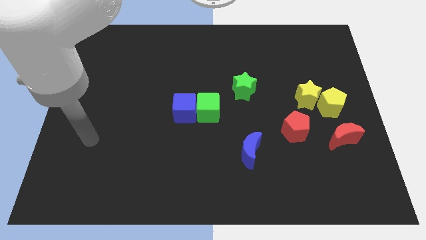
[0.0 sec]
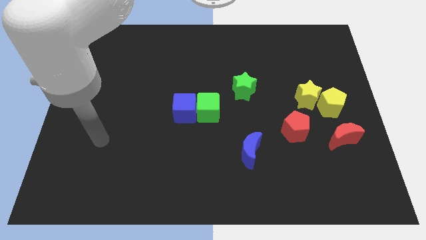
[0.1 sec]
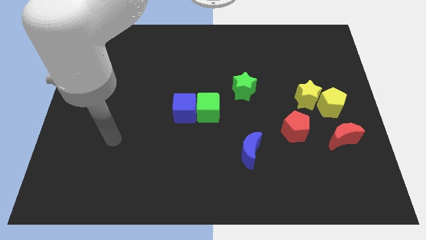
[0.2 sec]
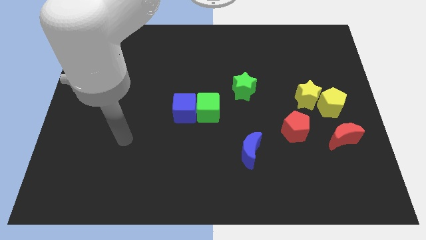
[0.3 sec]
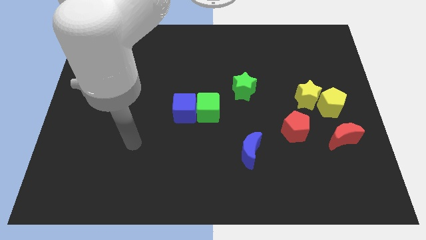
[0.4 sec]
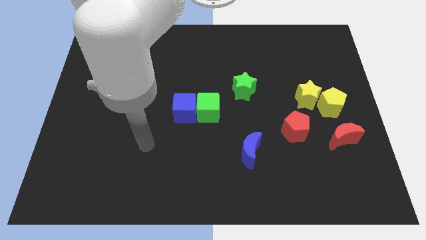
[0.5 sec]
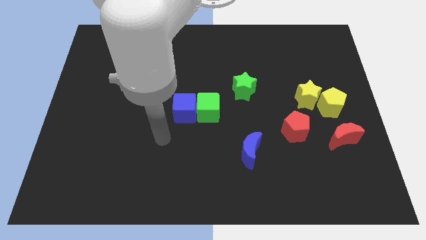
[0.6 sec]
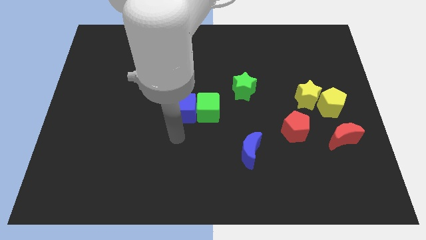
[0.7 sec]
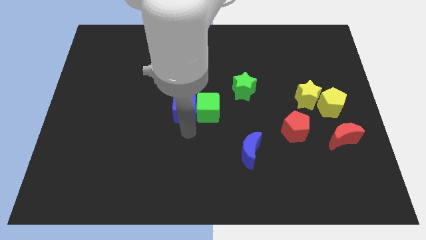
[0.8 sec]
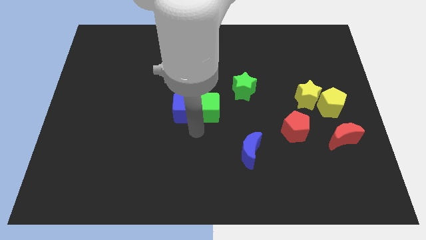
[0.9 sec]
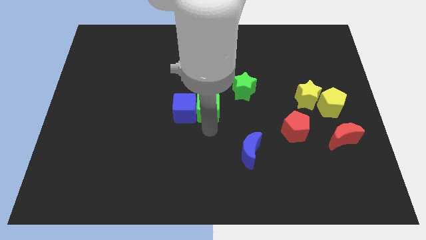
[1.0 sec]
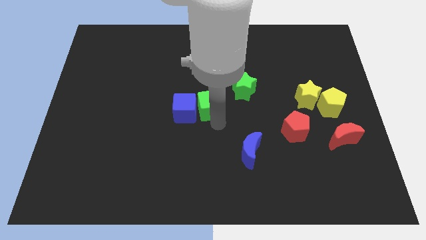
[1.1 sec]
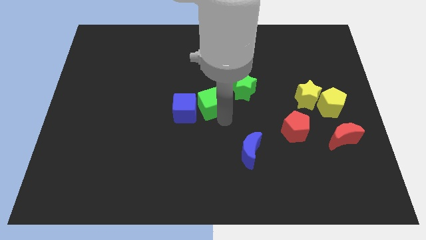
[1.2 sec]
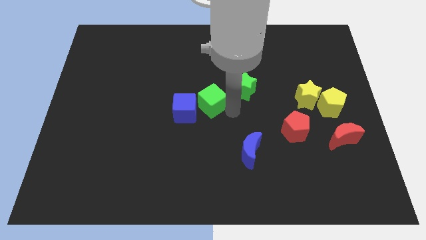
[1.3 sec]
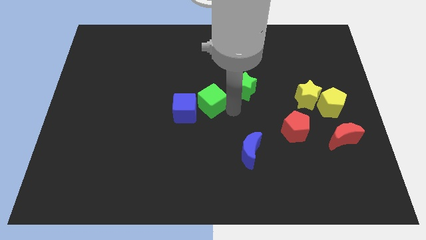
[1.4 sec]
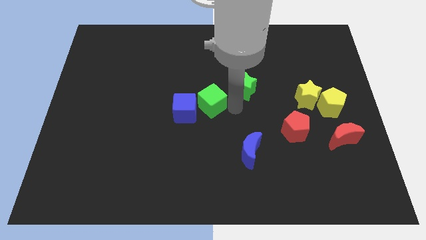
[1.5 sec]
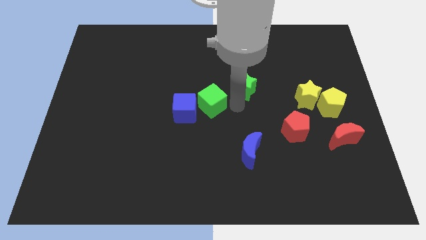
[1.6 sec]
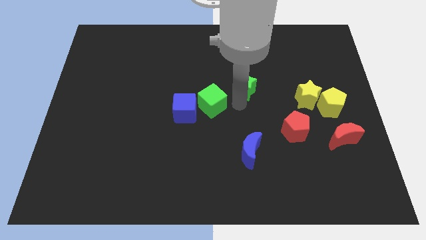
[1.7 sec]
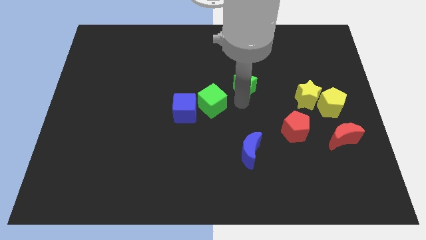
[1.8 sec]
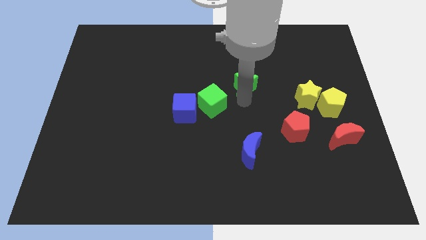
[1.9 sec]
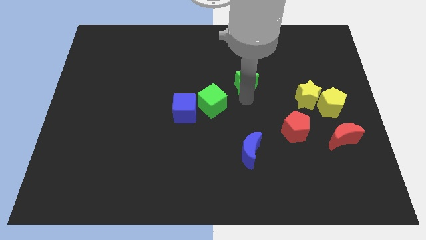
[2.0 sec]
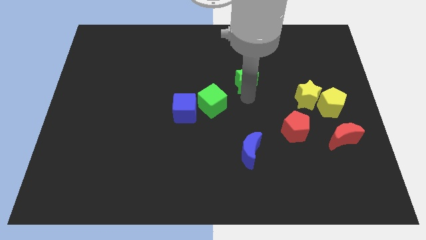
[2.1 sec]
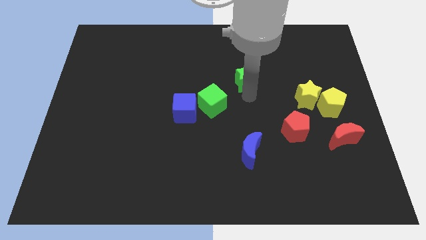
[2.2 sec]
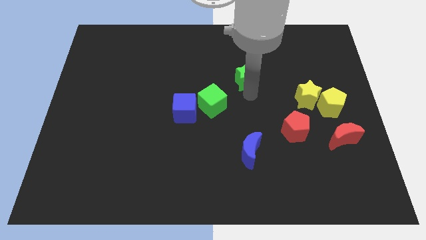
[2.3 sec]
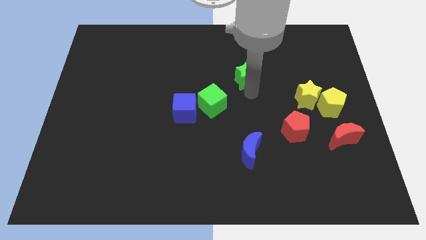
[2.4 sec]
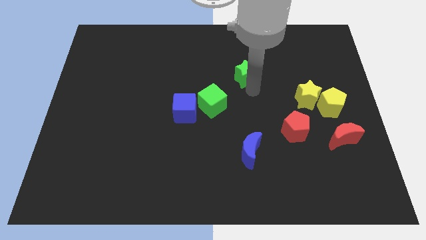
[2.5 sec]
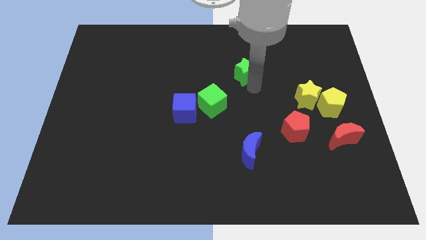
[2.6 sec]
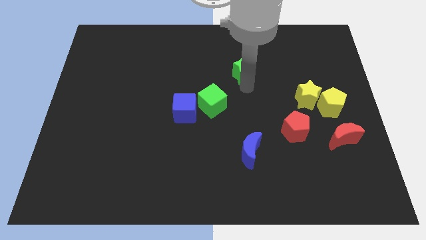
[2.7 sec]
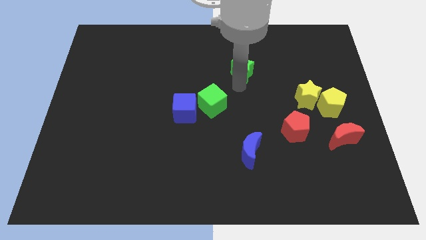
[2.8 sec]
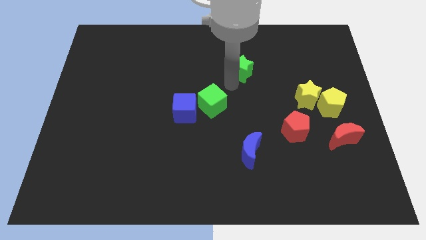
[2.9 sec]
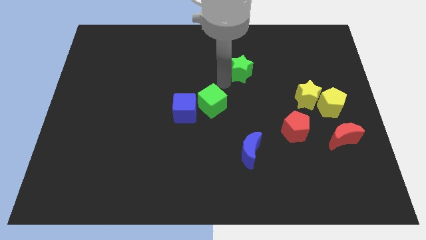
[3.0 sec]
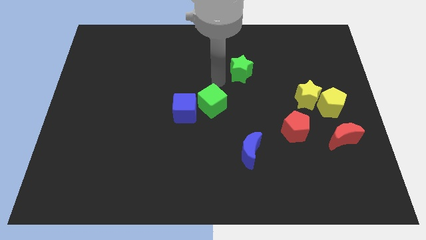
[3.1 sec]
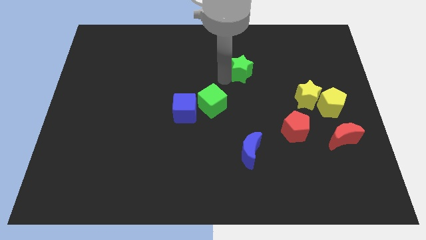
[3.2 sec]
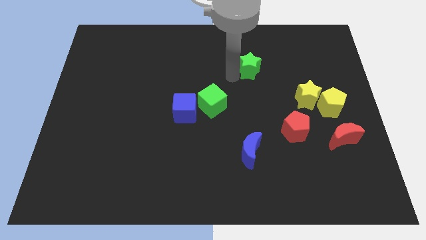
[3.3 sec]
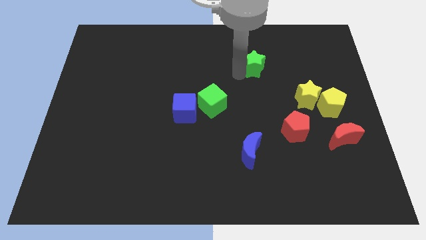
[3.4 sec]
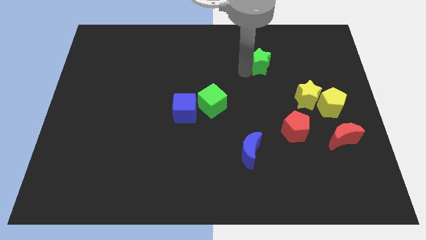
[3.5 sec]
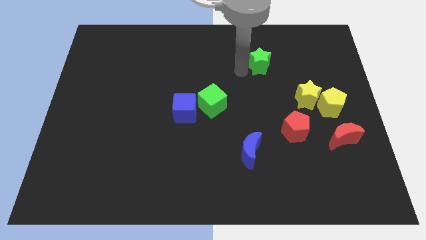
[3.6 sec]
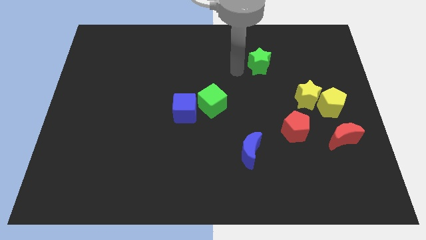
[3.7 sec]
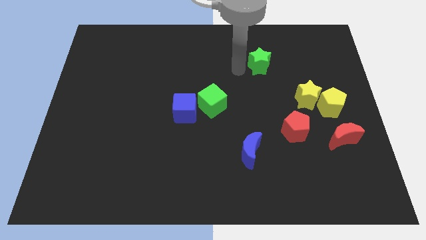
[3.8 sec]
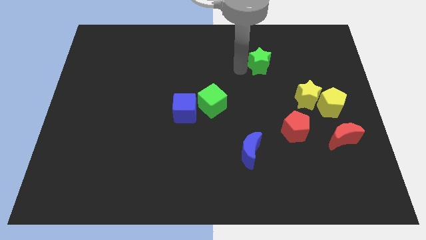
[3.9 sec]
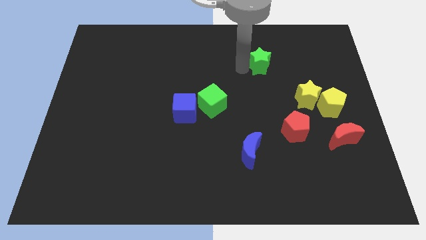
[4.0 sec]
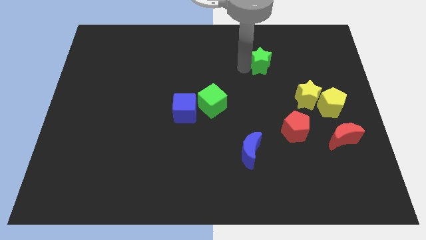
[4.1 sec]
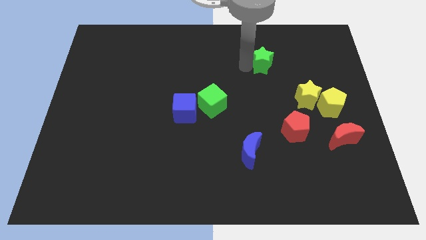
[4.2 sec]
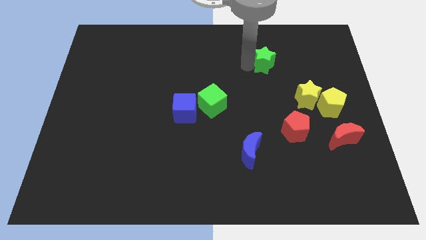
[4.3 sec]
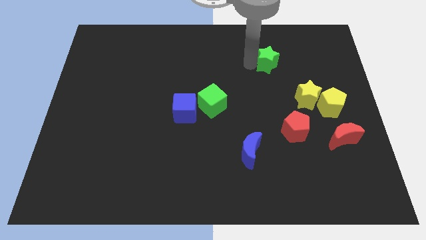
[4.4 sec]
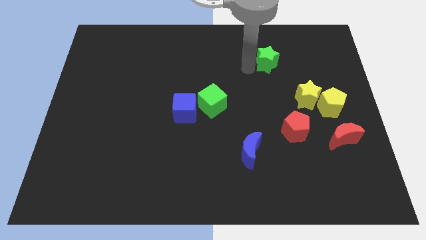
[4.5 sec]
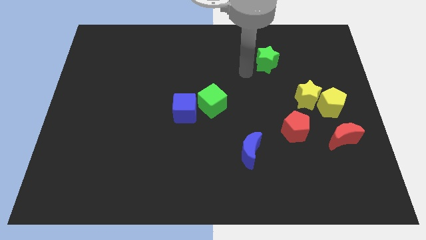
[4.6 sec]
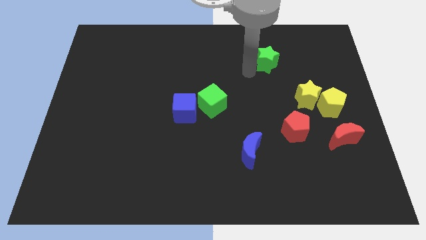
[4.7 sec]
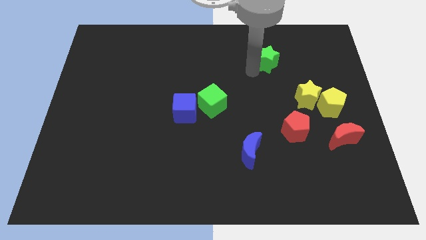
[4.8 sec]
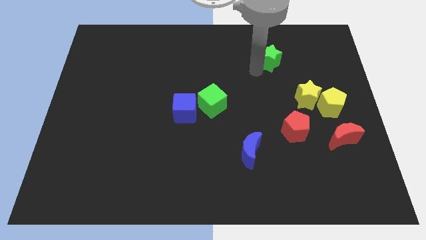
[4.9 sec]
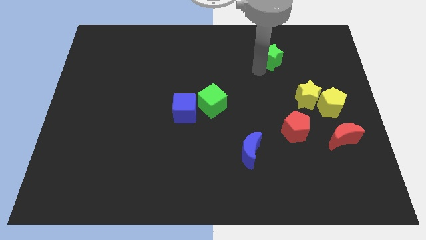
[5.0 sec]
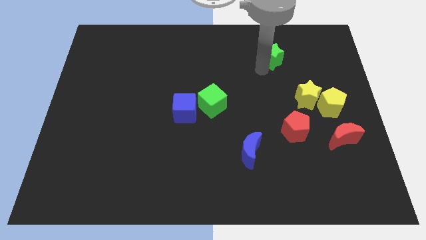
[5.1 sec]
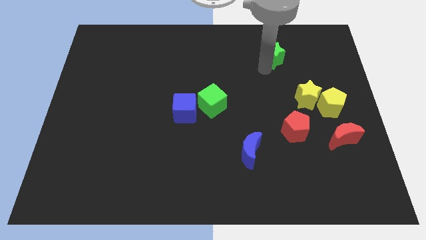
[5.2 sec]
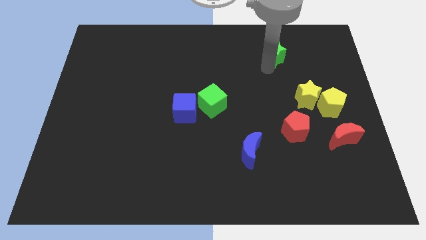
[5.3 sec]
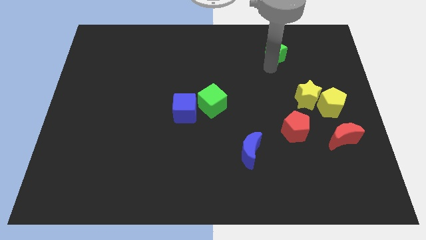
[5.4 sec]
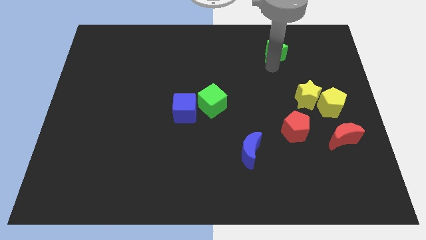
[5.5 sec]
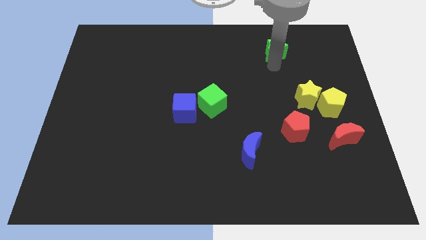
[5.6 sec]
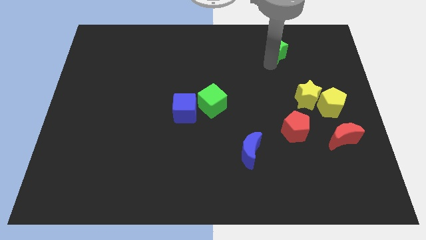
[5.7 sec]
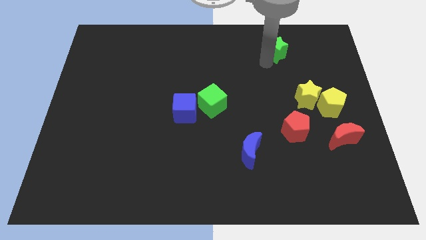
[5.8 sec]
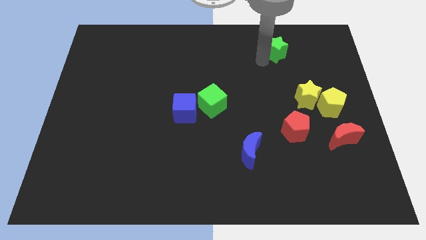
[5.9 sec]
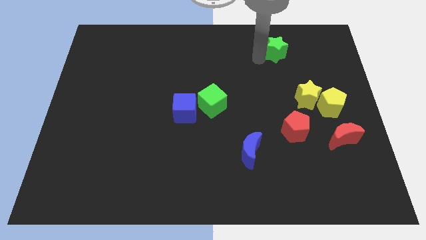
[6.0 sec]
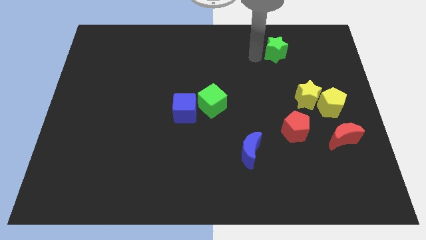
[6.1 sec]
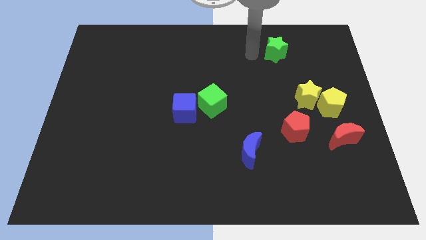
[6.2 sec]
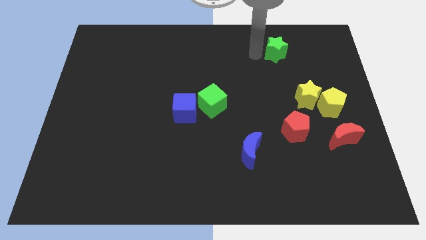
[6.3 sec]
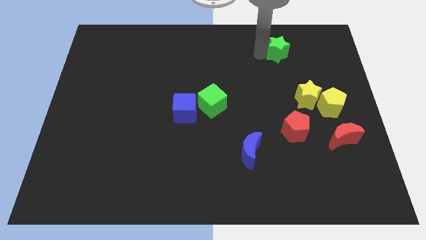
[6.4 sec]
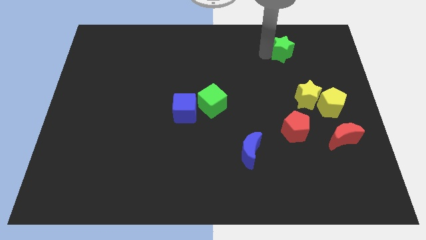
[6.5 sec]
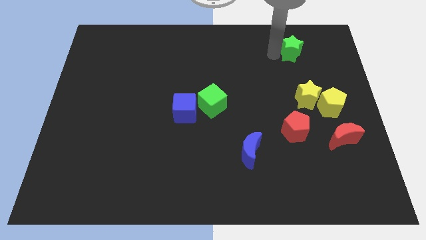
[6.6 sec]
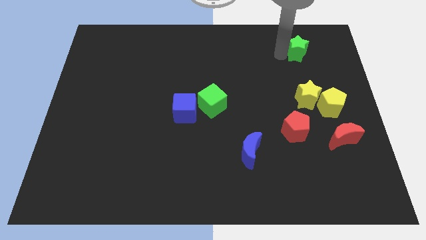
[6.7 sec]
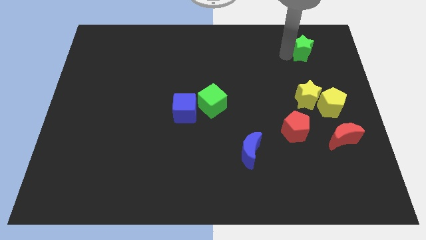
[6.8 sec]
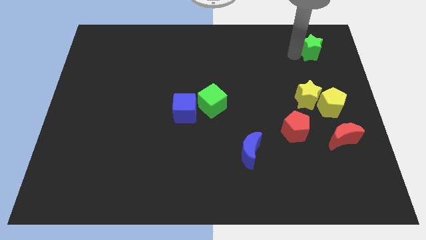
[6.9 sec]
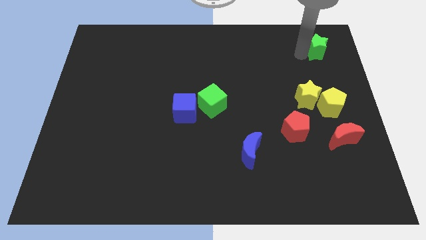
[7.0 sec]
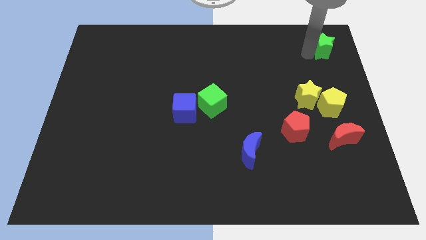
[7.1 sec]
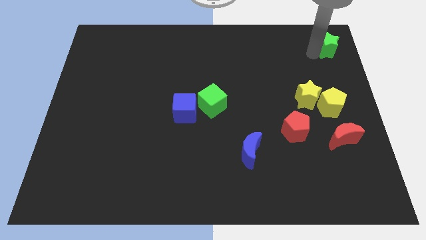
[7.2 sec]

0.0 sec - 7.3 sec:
put the green star to the upper right corner

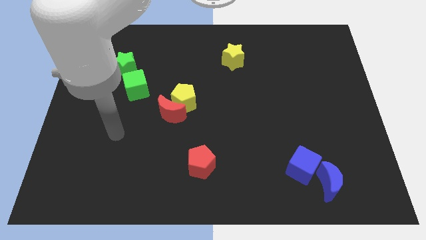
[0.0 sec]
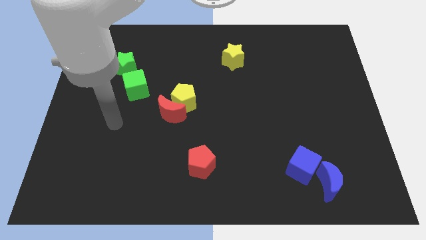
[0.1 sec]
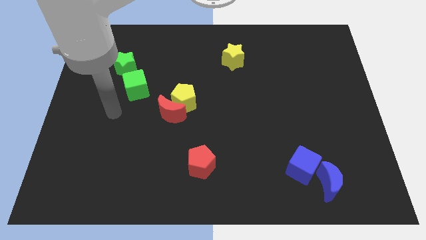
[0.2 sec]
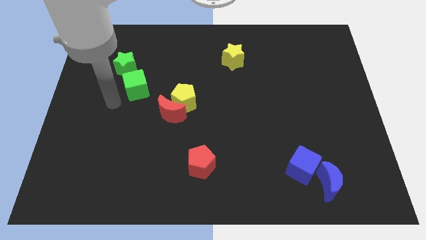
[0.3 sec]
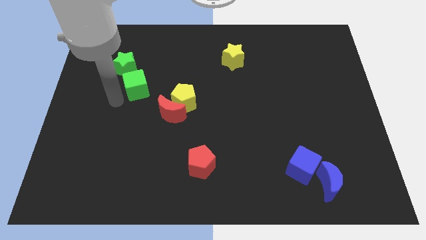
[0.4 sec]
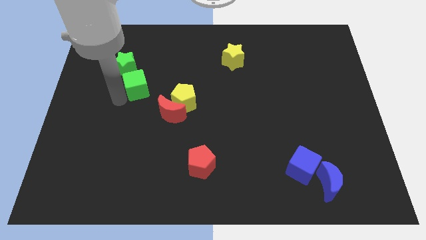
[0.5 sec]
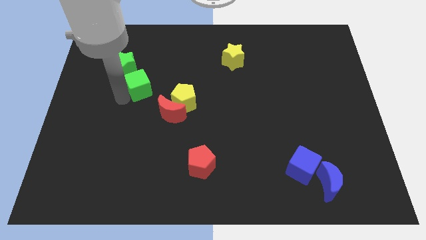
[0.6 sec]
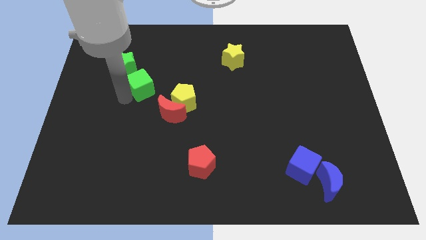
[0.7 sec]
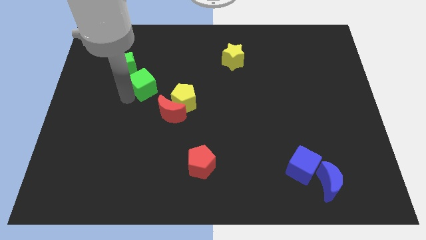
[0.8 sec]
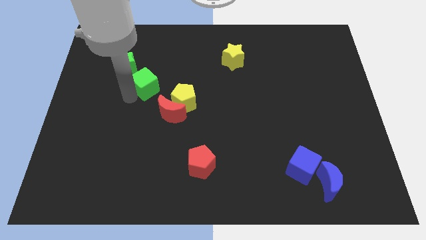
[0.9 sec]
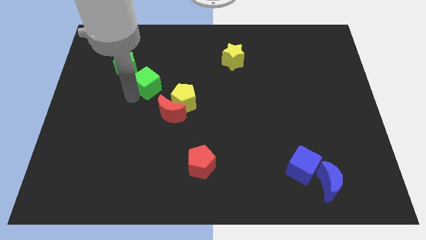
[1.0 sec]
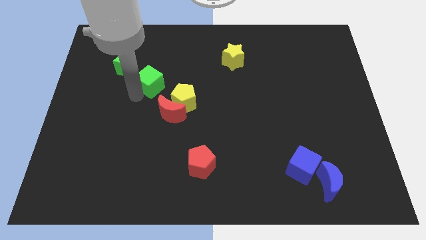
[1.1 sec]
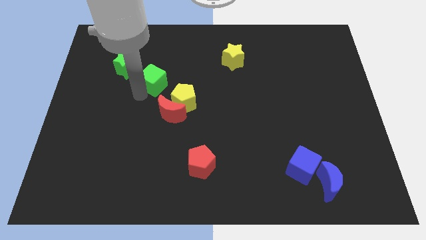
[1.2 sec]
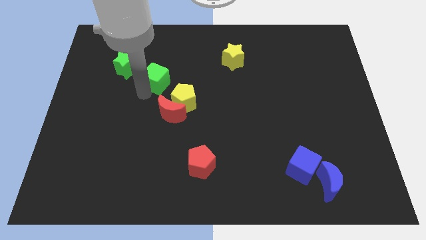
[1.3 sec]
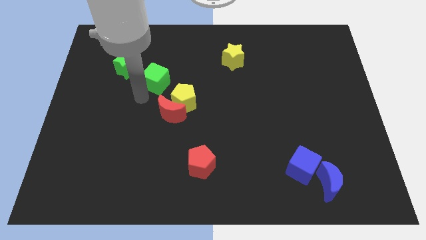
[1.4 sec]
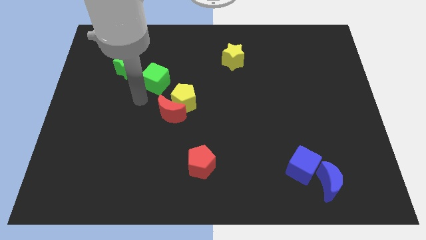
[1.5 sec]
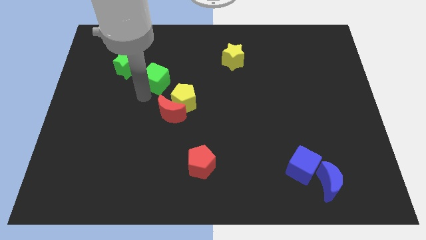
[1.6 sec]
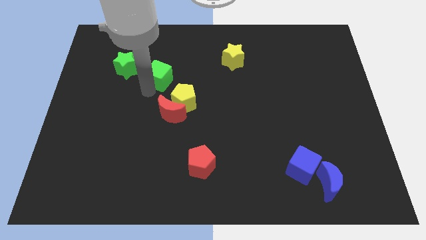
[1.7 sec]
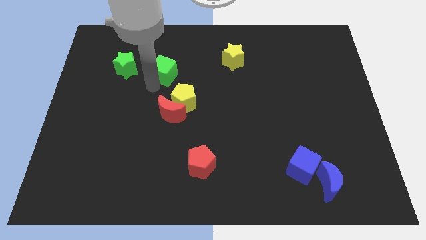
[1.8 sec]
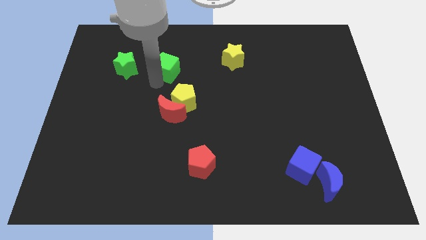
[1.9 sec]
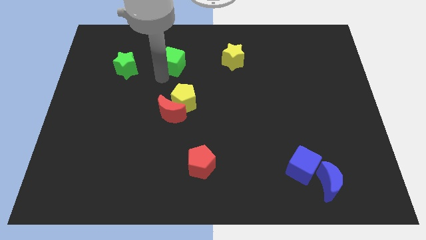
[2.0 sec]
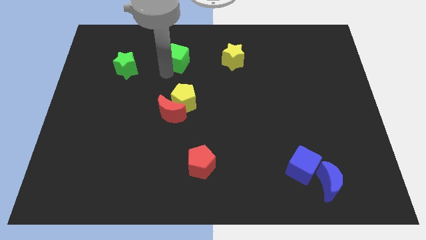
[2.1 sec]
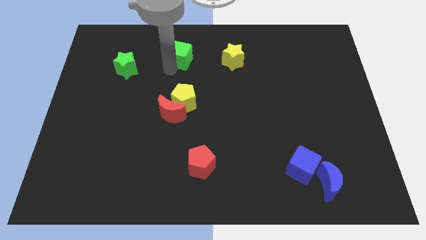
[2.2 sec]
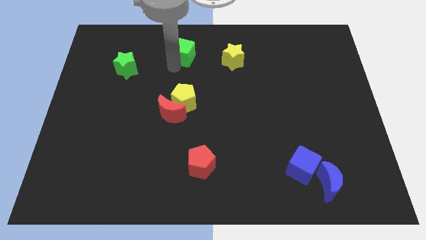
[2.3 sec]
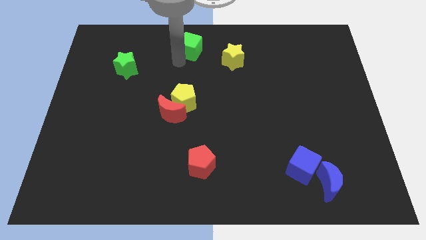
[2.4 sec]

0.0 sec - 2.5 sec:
slide the green cube to the towards your base
